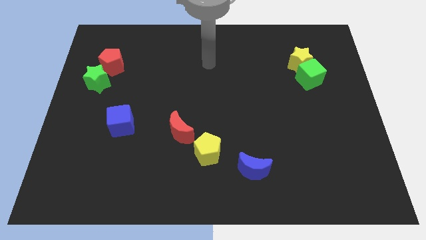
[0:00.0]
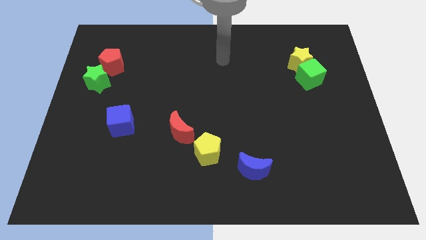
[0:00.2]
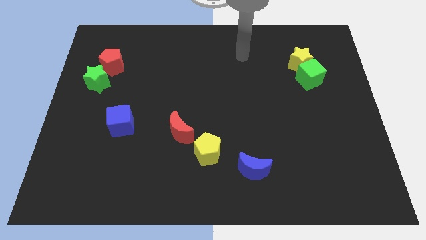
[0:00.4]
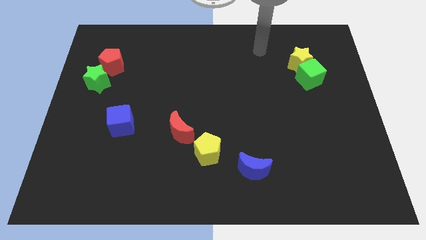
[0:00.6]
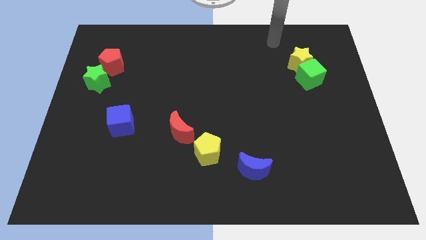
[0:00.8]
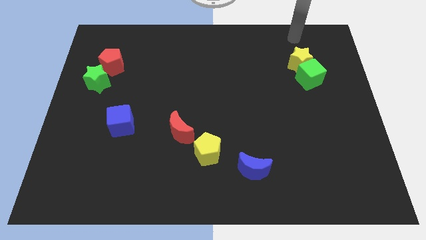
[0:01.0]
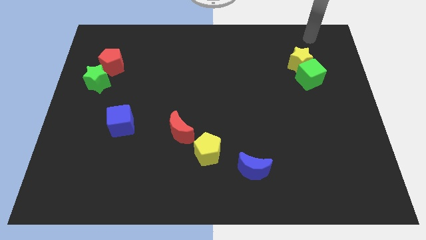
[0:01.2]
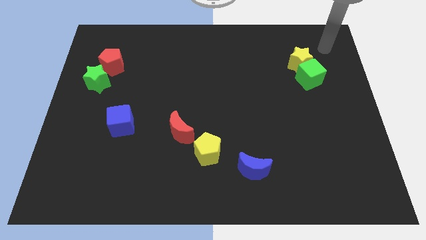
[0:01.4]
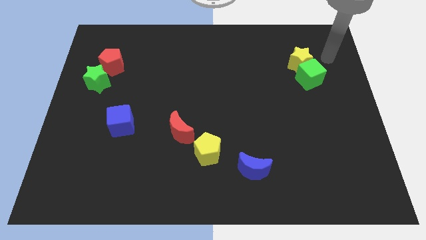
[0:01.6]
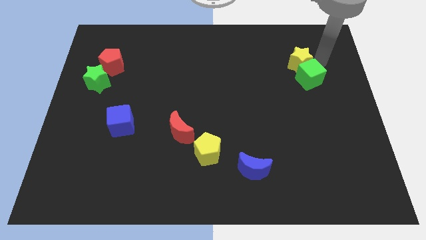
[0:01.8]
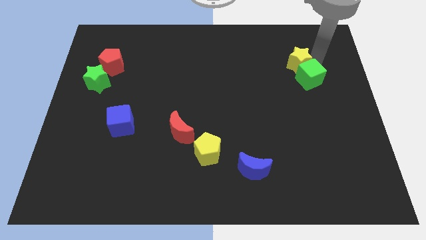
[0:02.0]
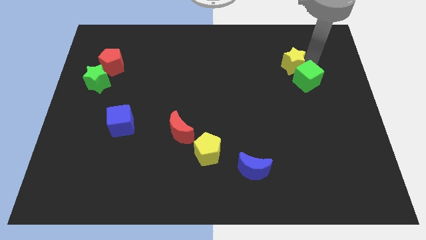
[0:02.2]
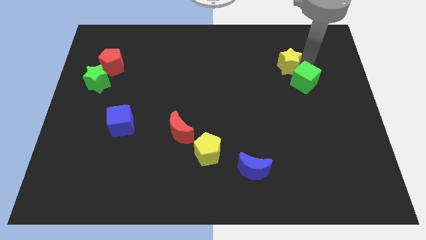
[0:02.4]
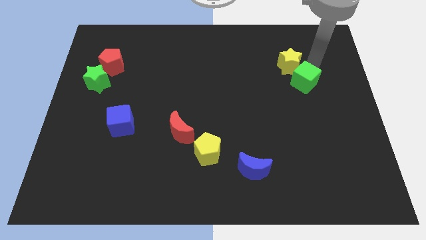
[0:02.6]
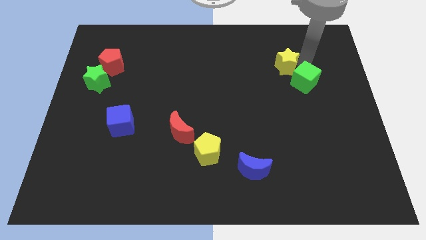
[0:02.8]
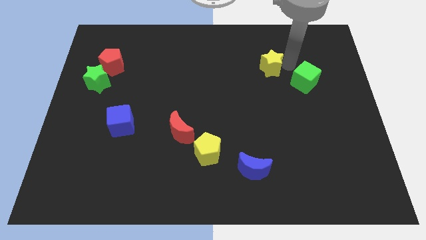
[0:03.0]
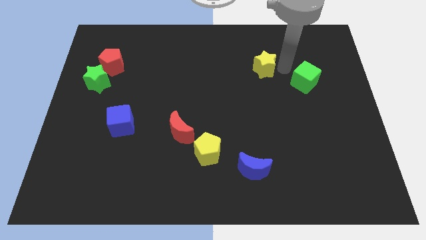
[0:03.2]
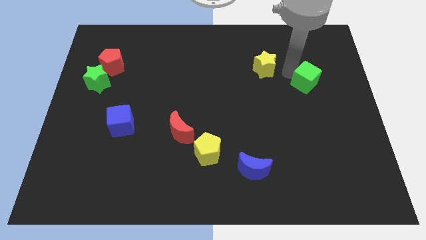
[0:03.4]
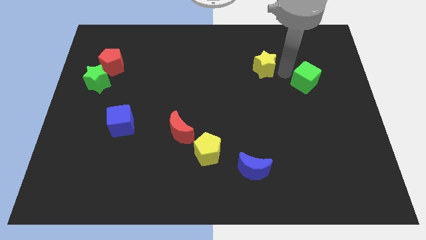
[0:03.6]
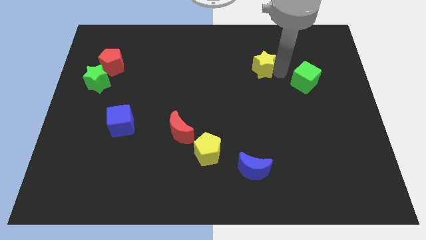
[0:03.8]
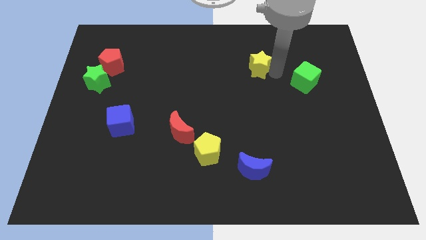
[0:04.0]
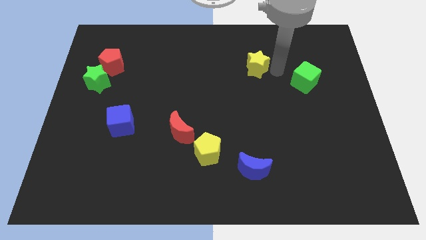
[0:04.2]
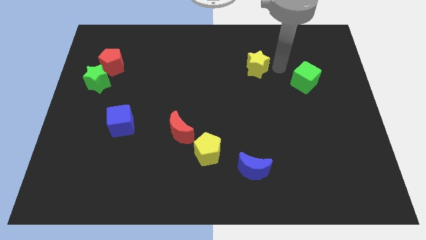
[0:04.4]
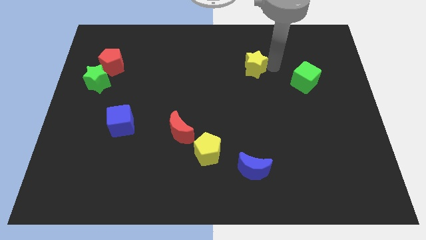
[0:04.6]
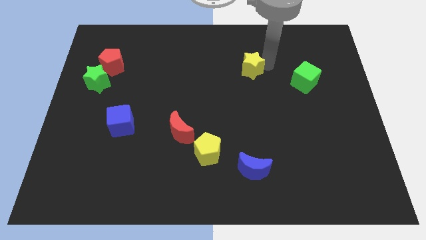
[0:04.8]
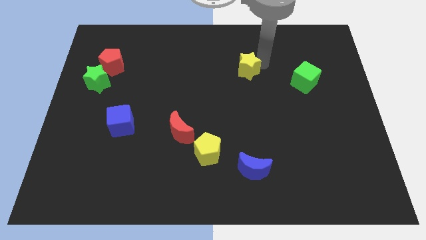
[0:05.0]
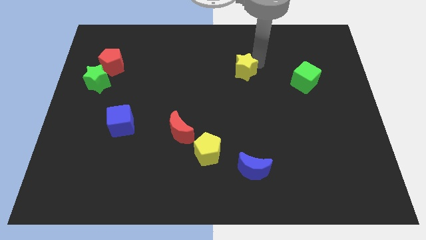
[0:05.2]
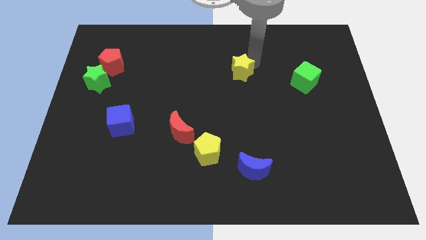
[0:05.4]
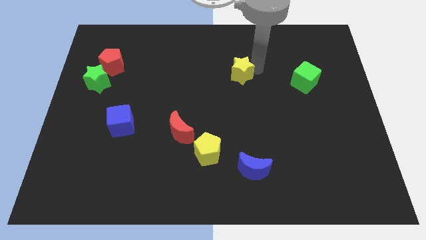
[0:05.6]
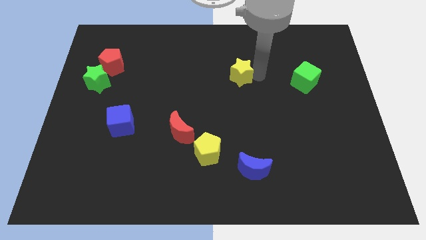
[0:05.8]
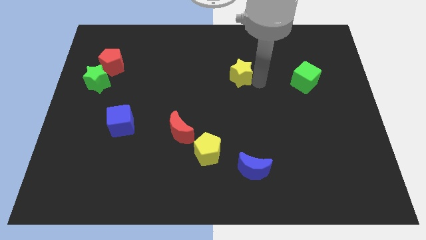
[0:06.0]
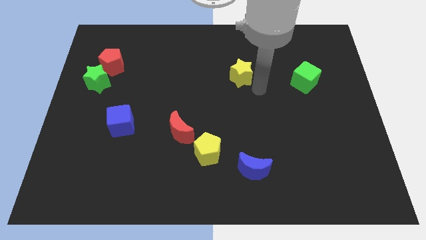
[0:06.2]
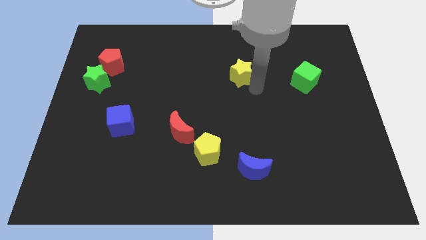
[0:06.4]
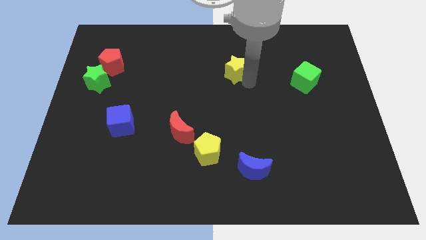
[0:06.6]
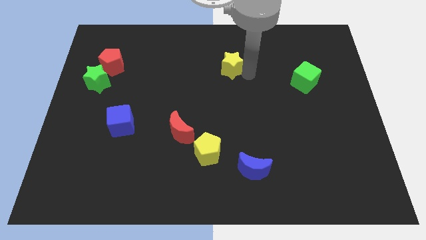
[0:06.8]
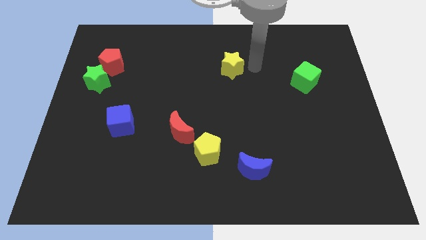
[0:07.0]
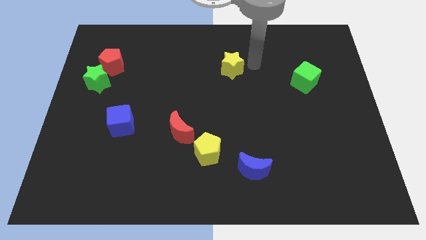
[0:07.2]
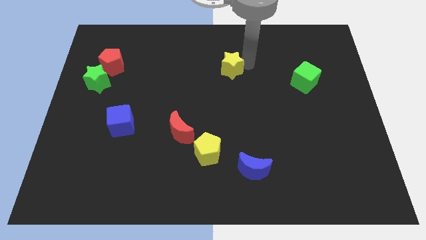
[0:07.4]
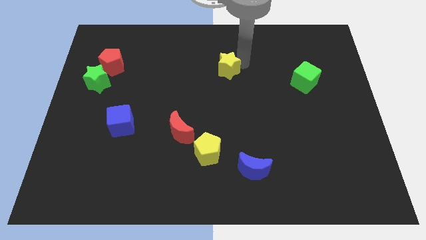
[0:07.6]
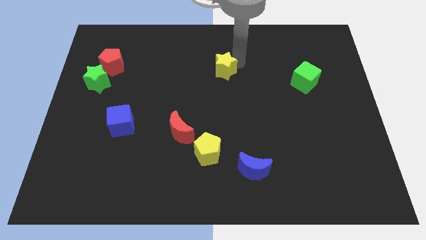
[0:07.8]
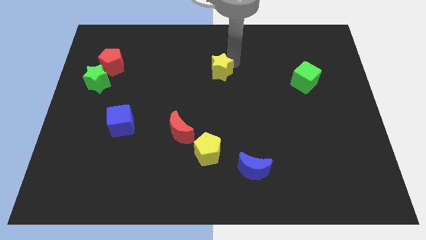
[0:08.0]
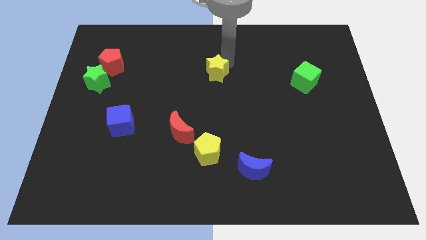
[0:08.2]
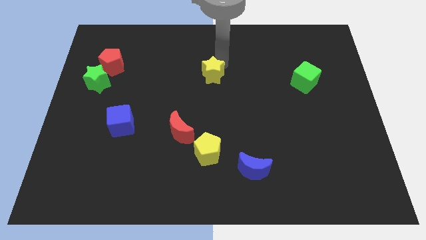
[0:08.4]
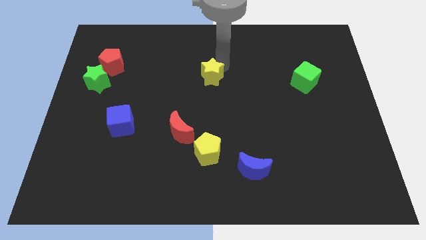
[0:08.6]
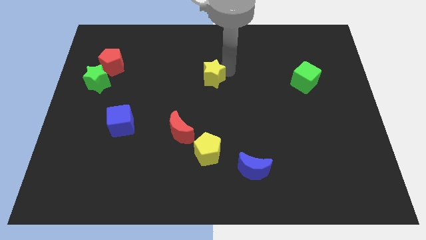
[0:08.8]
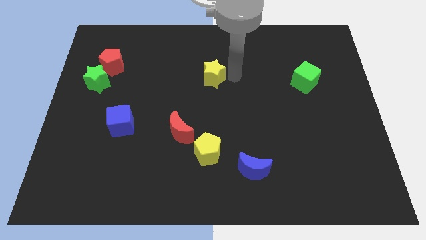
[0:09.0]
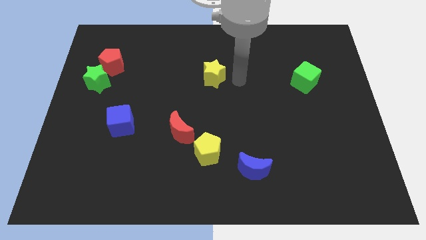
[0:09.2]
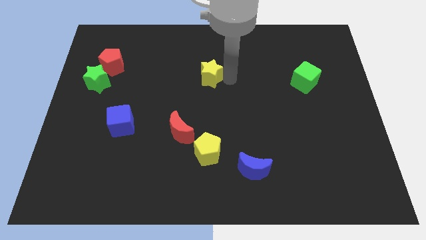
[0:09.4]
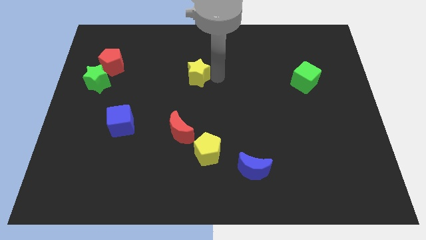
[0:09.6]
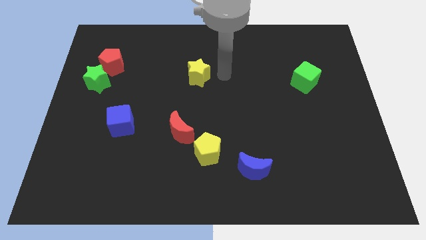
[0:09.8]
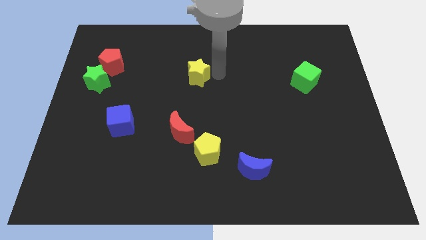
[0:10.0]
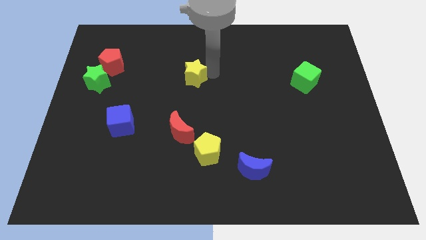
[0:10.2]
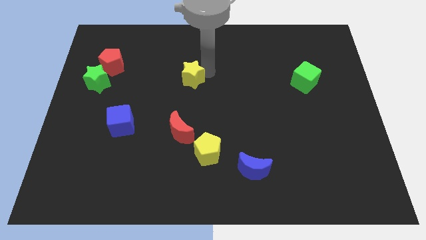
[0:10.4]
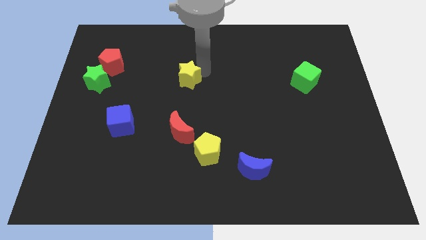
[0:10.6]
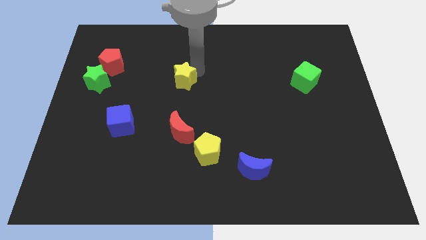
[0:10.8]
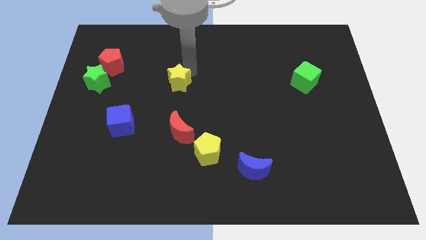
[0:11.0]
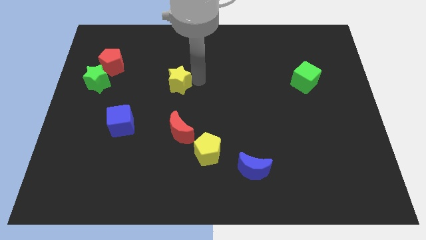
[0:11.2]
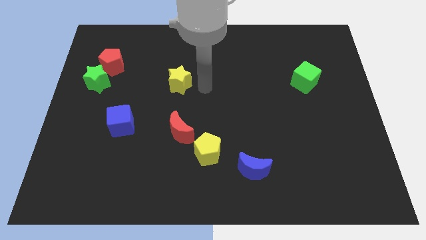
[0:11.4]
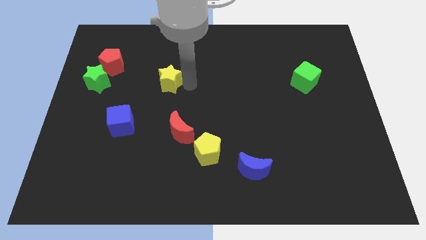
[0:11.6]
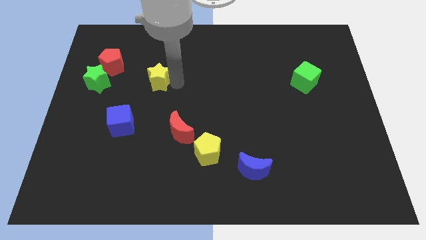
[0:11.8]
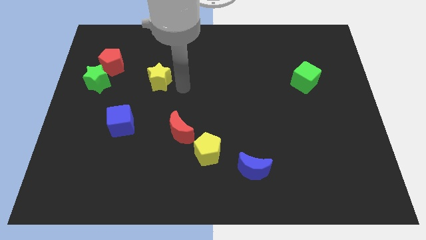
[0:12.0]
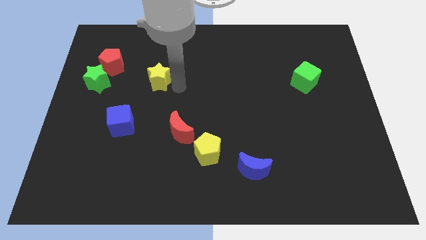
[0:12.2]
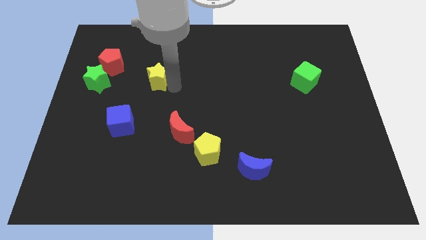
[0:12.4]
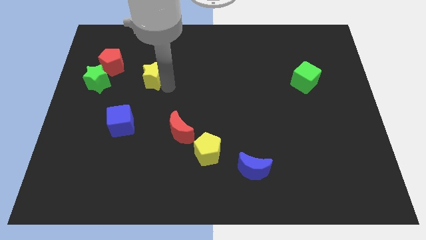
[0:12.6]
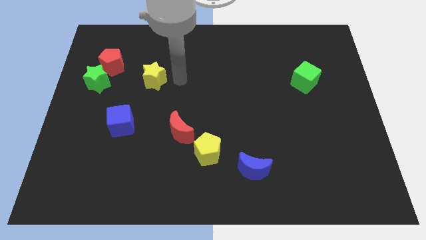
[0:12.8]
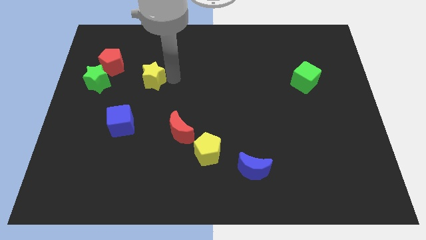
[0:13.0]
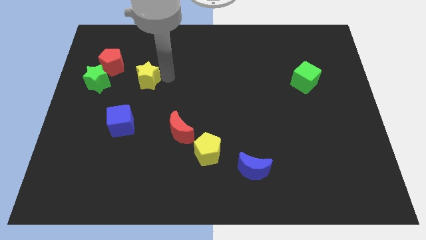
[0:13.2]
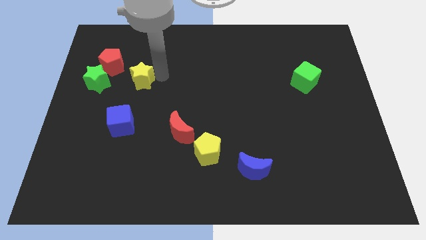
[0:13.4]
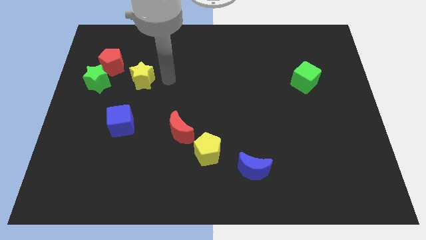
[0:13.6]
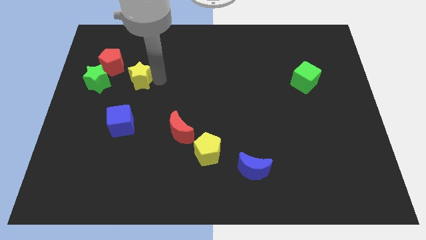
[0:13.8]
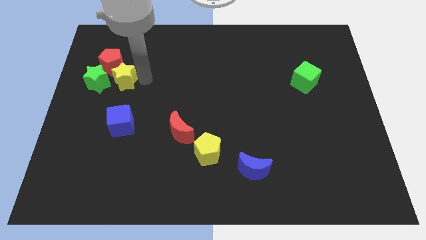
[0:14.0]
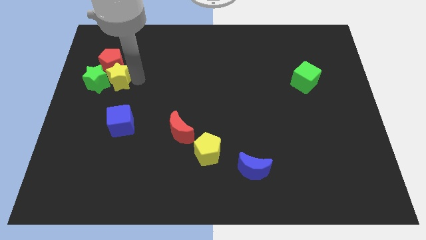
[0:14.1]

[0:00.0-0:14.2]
slide the yellow star towards the green star

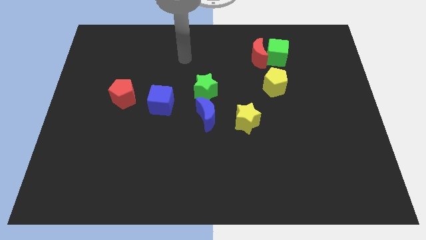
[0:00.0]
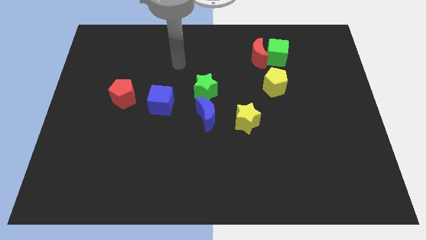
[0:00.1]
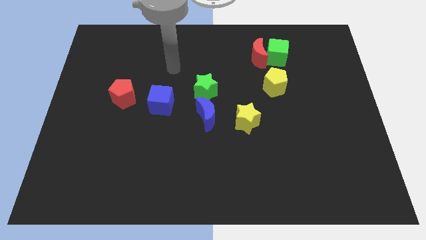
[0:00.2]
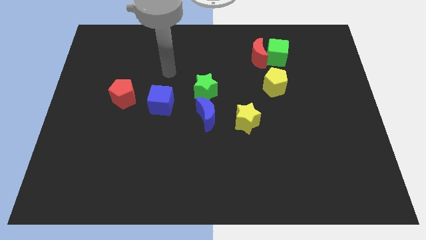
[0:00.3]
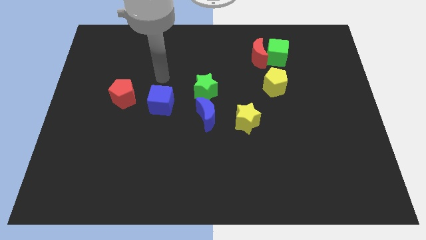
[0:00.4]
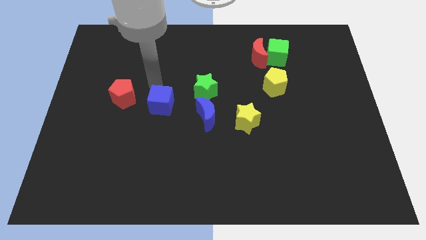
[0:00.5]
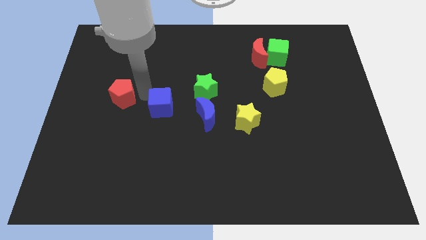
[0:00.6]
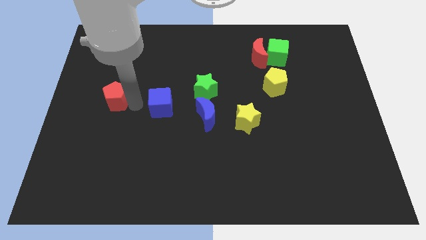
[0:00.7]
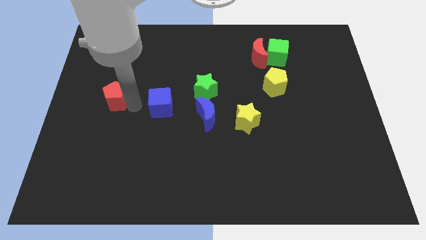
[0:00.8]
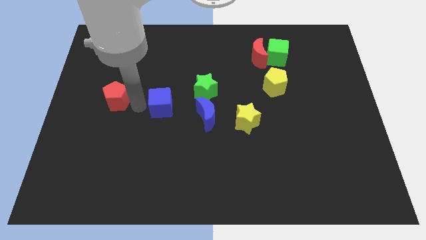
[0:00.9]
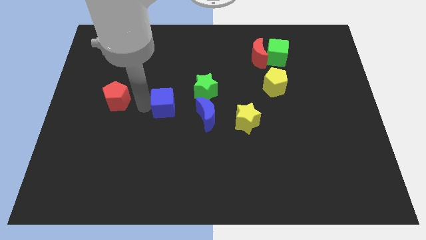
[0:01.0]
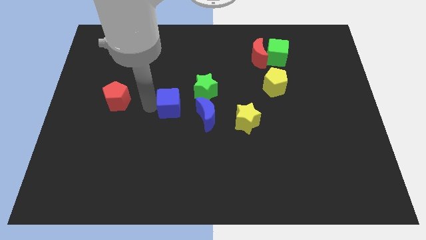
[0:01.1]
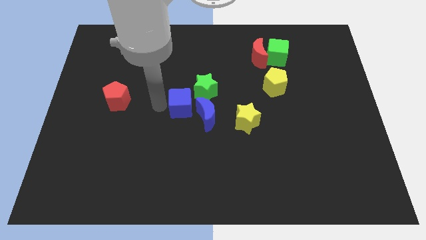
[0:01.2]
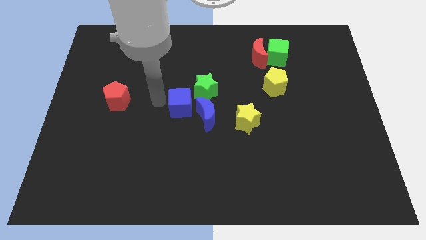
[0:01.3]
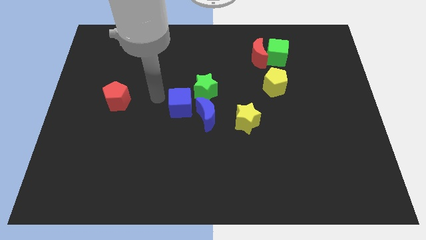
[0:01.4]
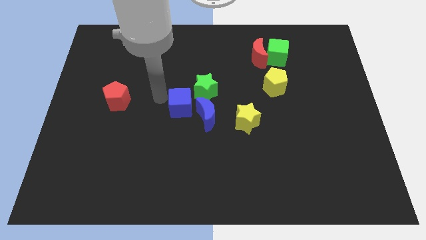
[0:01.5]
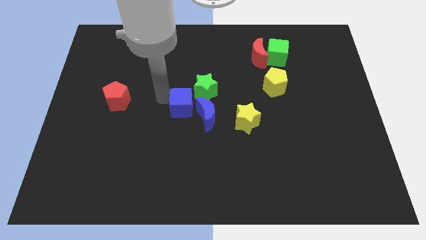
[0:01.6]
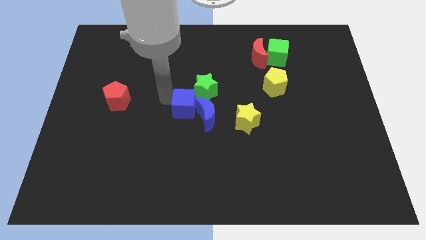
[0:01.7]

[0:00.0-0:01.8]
move the blue cube to the blue moon
